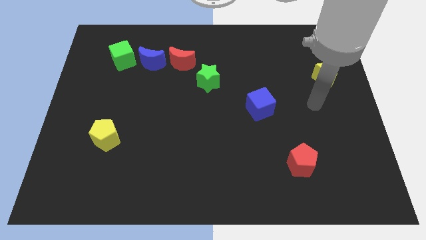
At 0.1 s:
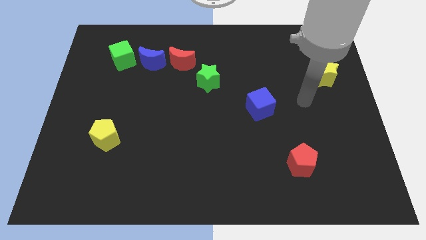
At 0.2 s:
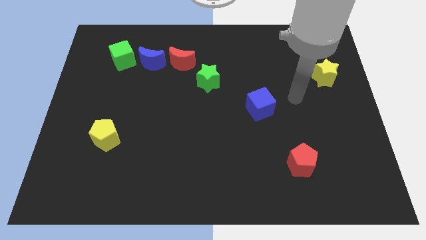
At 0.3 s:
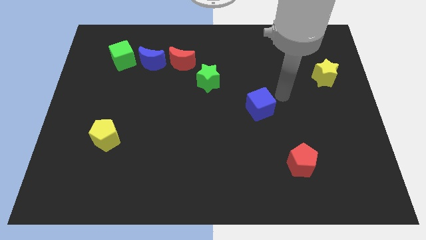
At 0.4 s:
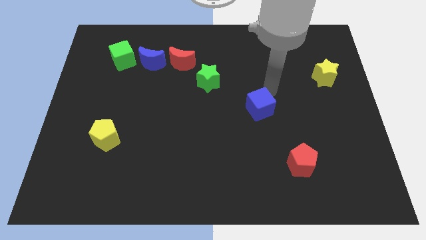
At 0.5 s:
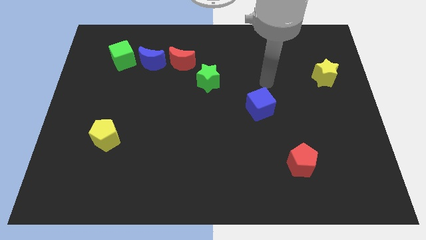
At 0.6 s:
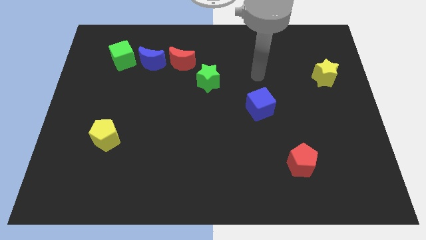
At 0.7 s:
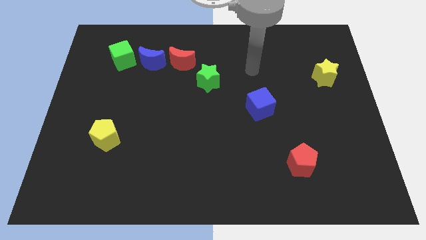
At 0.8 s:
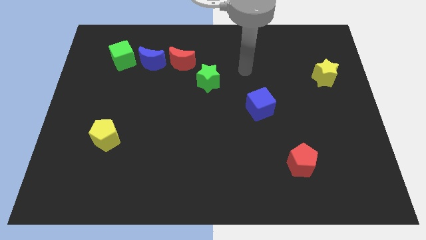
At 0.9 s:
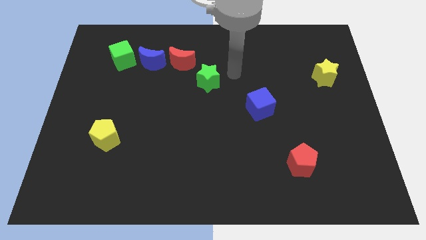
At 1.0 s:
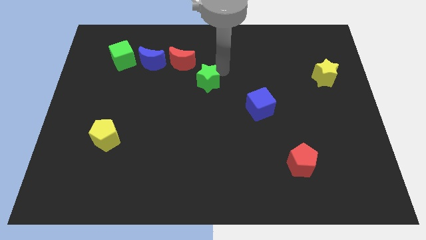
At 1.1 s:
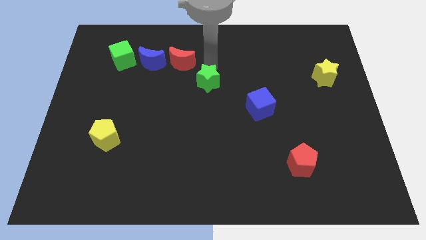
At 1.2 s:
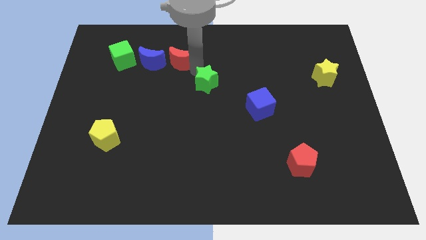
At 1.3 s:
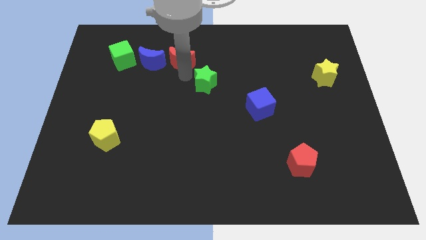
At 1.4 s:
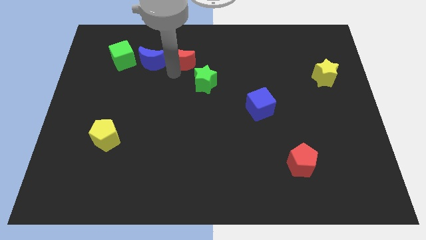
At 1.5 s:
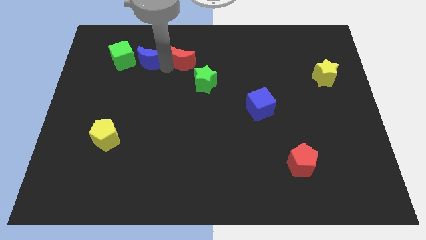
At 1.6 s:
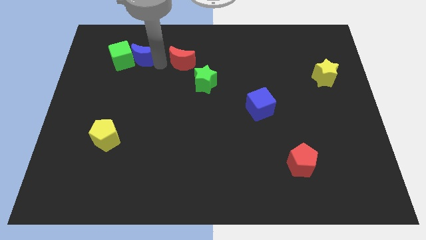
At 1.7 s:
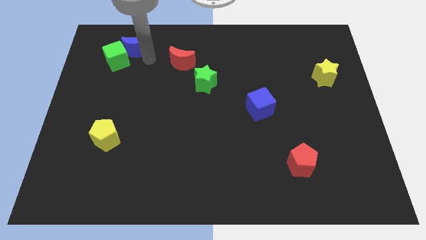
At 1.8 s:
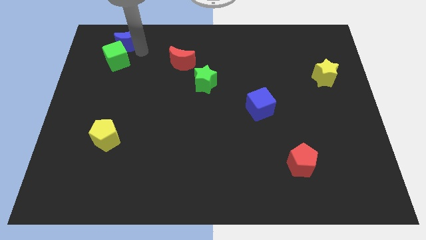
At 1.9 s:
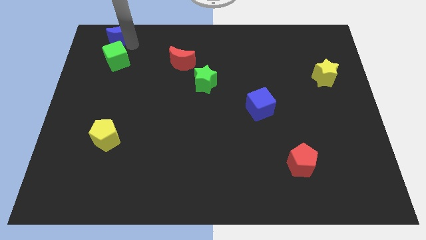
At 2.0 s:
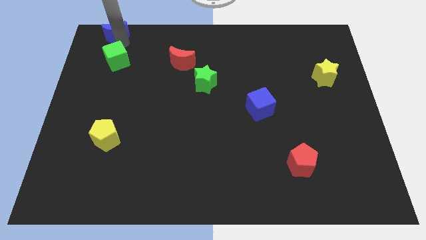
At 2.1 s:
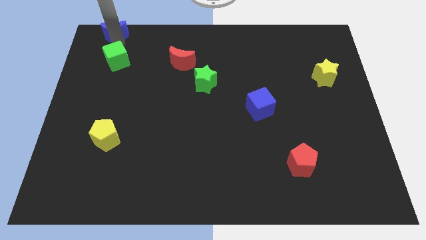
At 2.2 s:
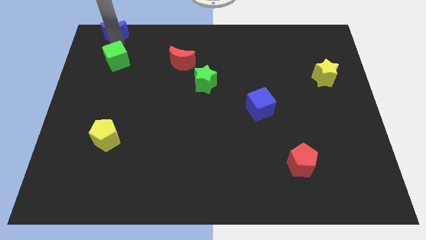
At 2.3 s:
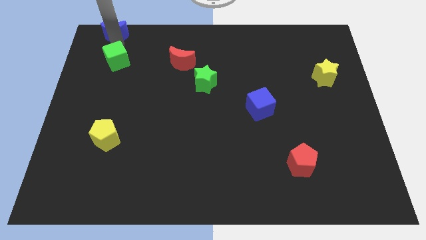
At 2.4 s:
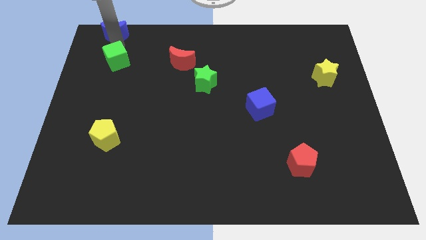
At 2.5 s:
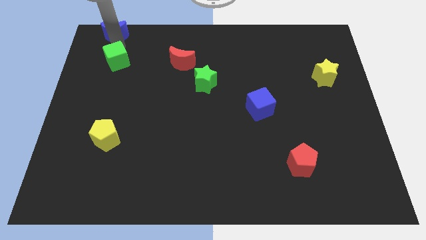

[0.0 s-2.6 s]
move the green cube away from the blue moon

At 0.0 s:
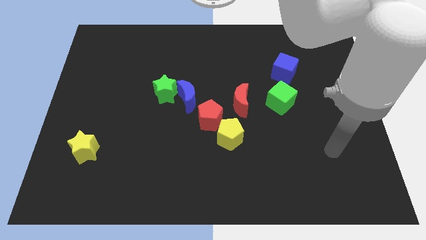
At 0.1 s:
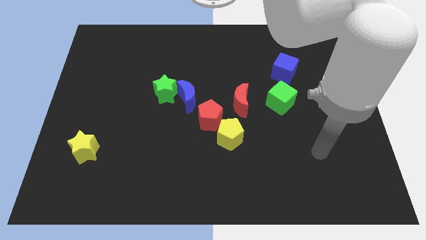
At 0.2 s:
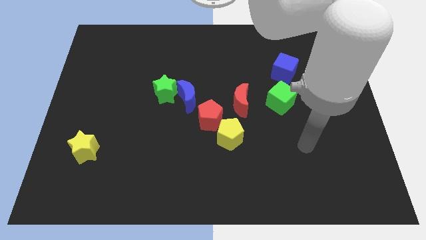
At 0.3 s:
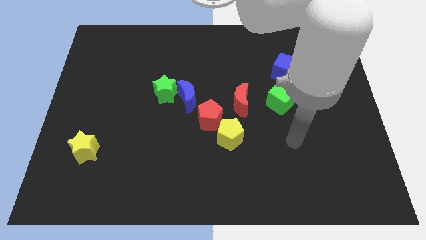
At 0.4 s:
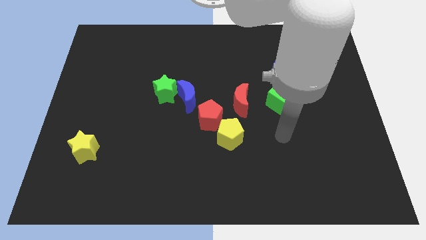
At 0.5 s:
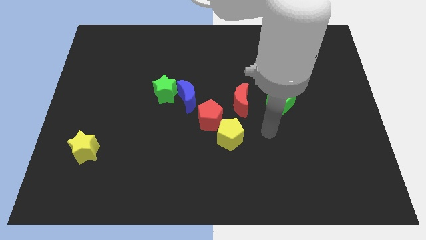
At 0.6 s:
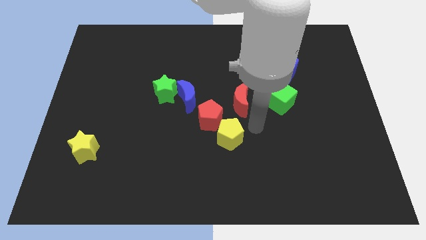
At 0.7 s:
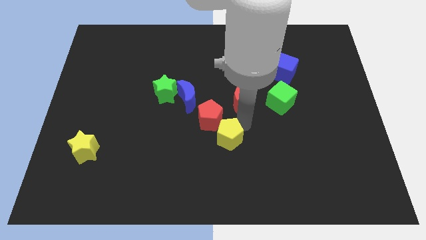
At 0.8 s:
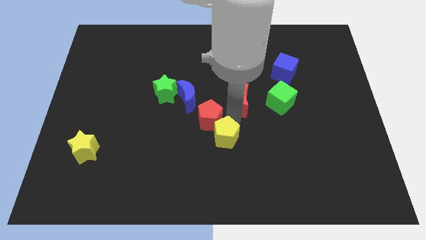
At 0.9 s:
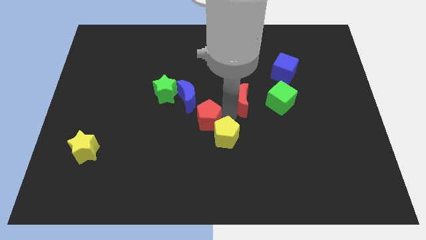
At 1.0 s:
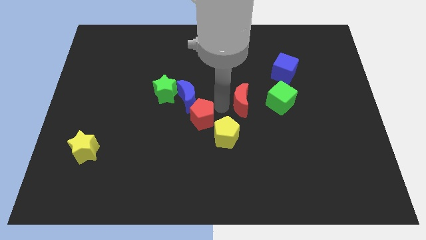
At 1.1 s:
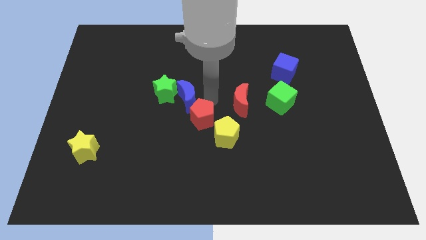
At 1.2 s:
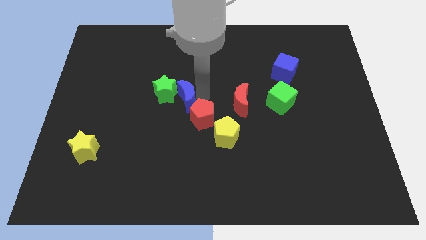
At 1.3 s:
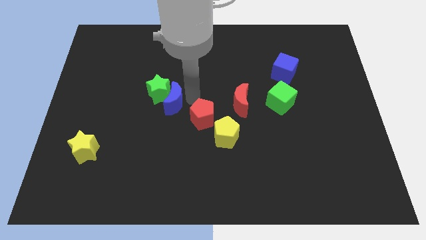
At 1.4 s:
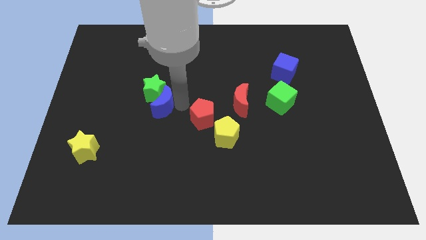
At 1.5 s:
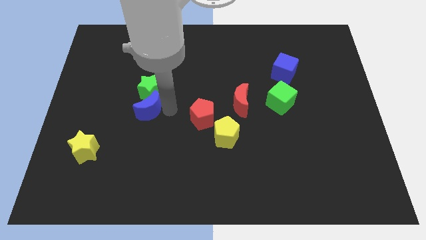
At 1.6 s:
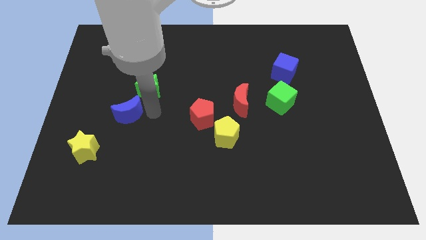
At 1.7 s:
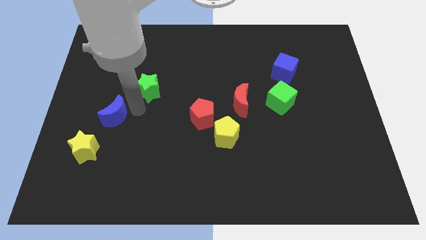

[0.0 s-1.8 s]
move the green star away from the blue moon

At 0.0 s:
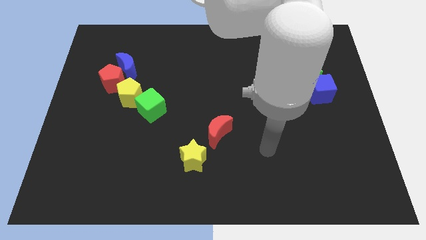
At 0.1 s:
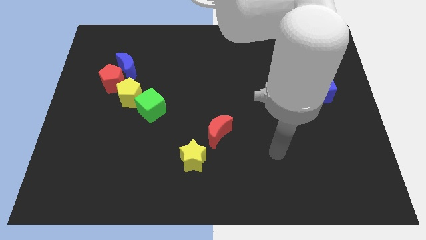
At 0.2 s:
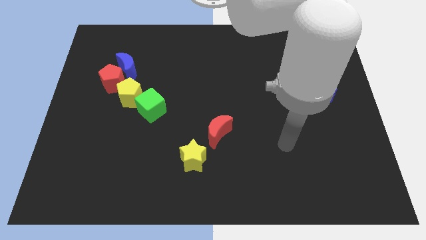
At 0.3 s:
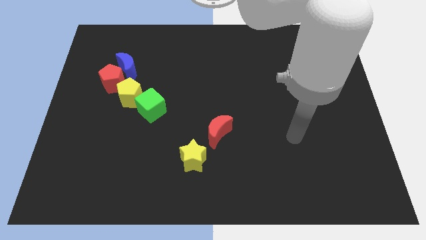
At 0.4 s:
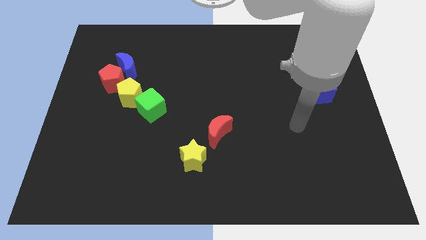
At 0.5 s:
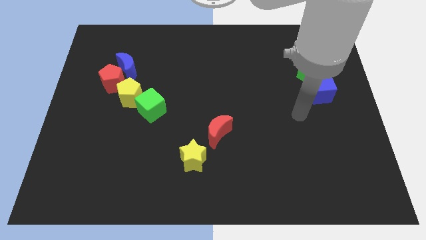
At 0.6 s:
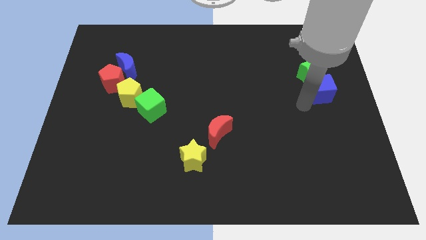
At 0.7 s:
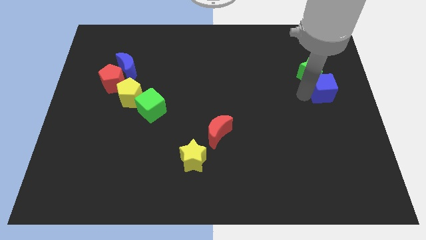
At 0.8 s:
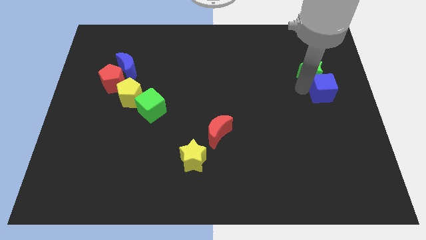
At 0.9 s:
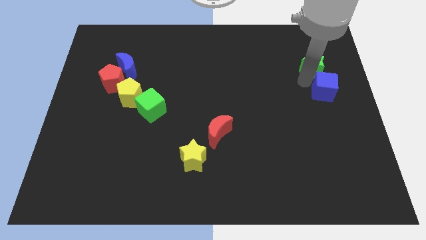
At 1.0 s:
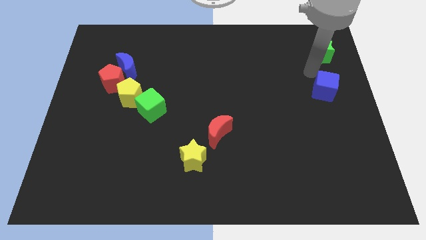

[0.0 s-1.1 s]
pull the blue cube apart from the green star

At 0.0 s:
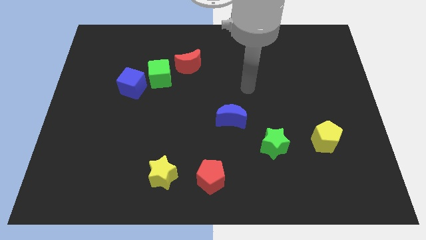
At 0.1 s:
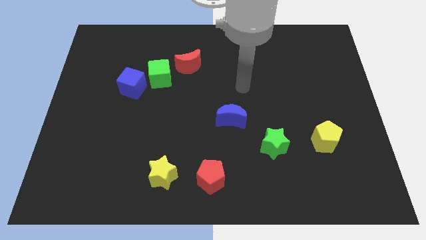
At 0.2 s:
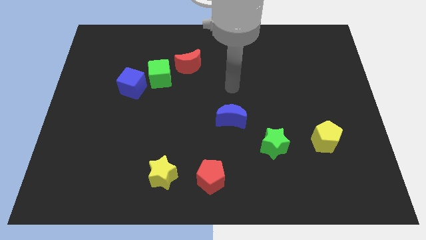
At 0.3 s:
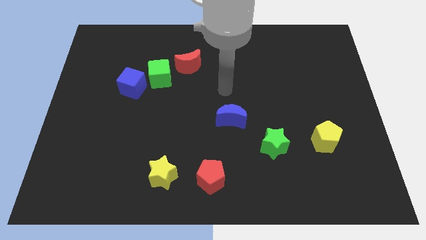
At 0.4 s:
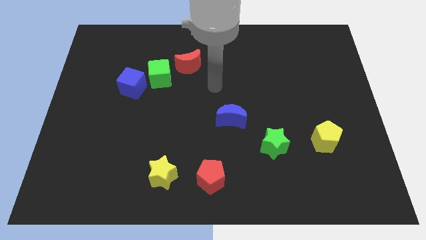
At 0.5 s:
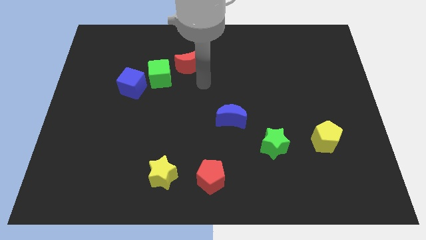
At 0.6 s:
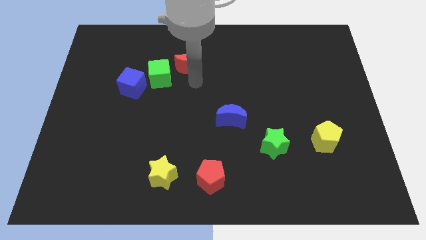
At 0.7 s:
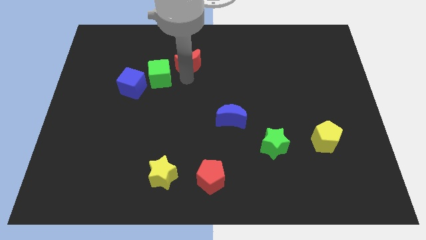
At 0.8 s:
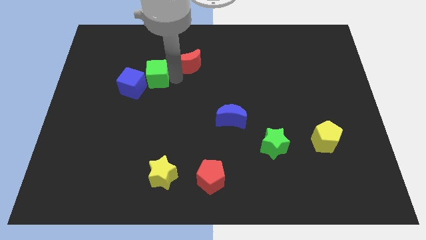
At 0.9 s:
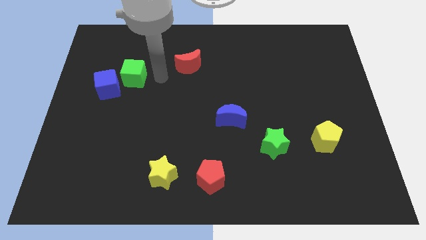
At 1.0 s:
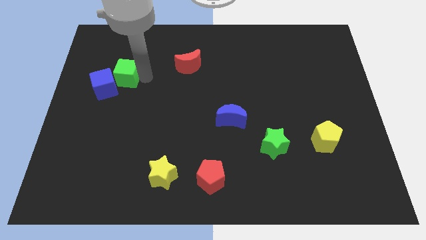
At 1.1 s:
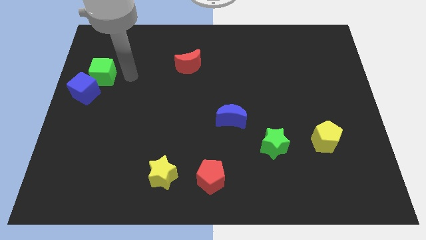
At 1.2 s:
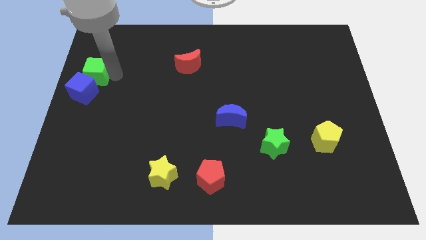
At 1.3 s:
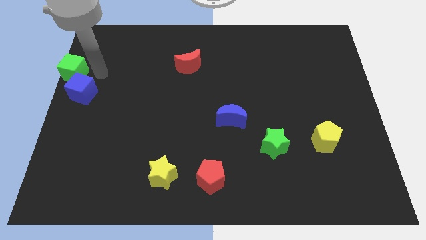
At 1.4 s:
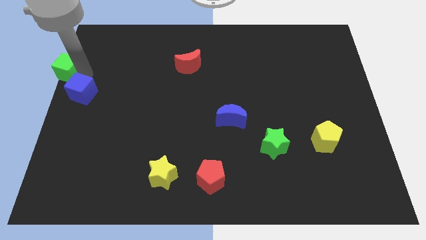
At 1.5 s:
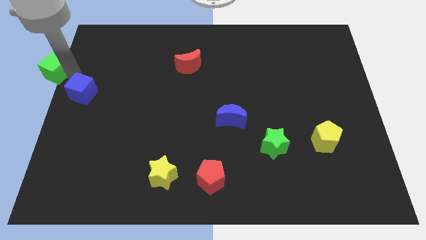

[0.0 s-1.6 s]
separate the blue cube from the green cube

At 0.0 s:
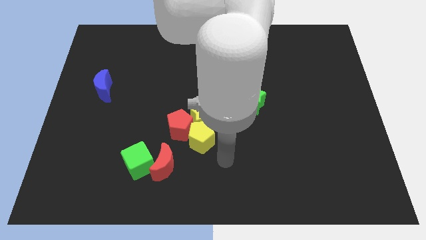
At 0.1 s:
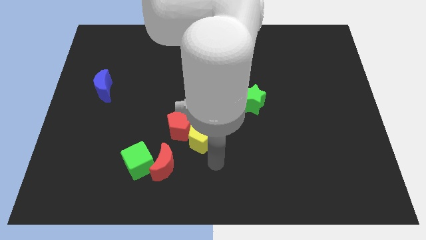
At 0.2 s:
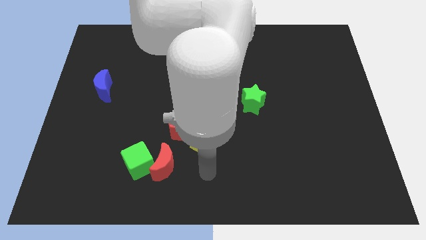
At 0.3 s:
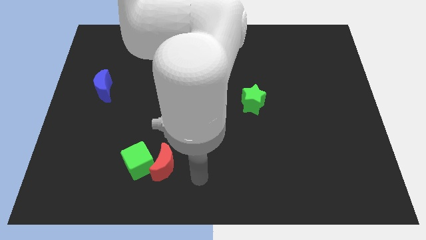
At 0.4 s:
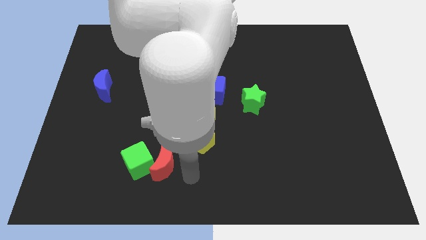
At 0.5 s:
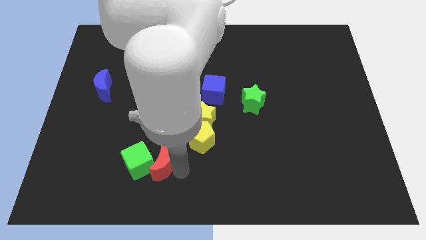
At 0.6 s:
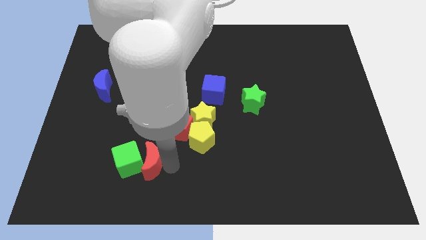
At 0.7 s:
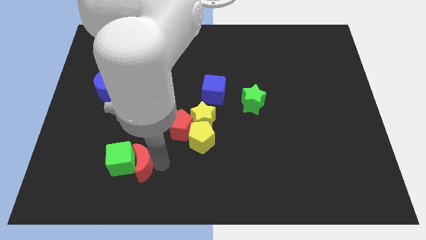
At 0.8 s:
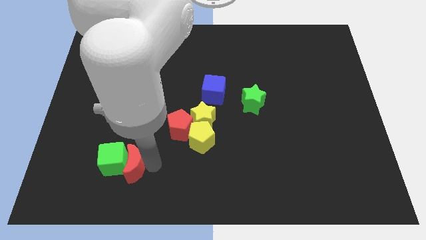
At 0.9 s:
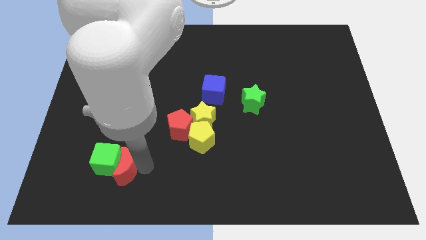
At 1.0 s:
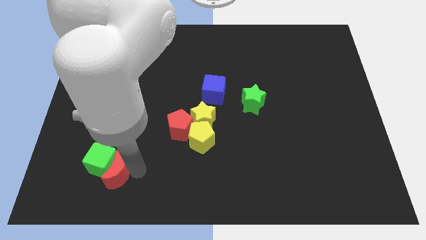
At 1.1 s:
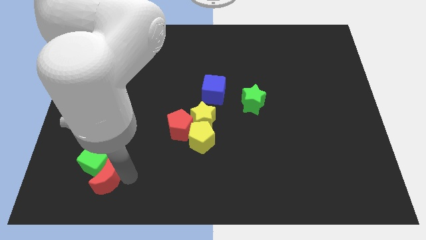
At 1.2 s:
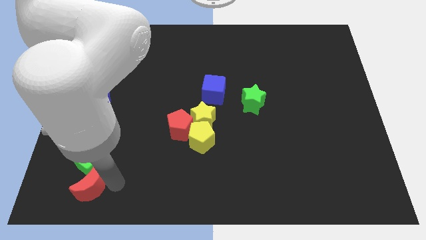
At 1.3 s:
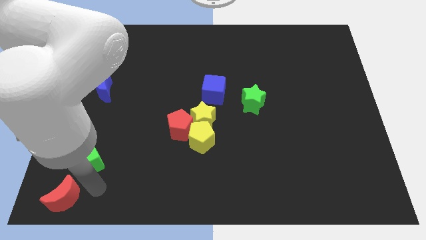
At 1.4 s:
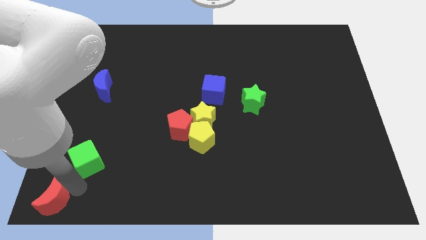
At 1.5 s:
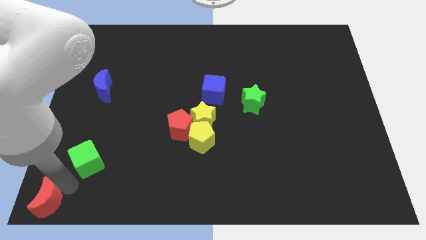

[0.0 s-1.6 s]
pull the green cube apart from the red moon

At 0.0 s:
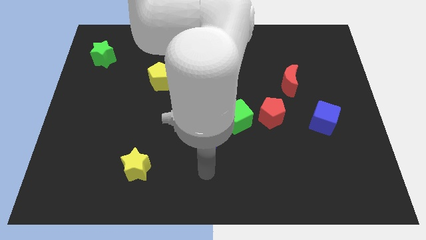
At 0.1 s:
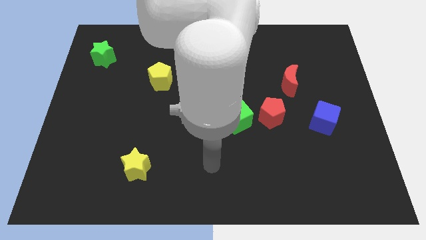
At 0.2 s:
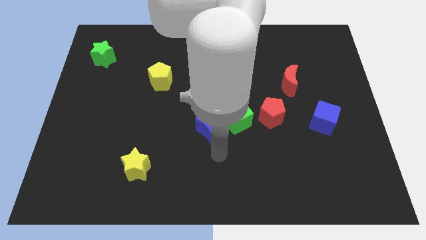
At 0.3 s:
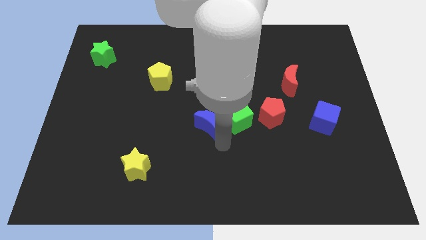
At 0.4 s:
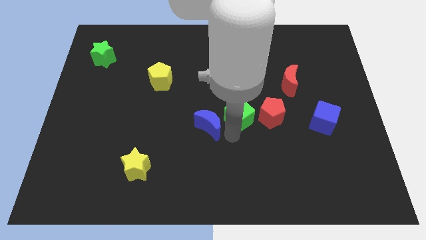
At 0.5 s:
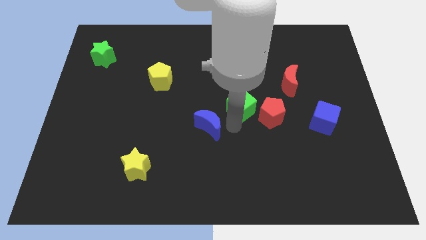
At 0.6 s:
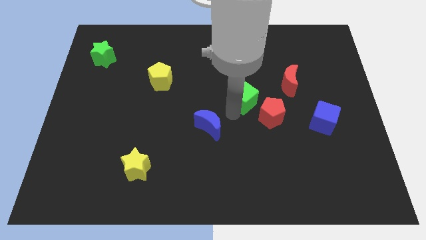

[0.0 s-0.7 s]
separate the blue moon from the green cube

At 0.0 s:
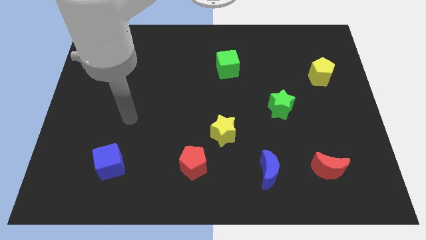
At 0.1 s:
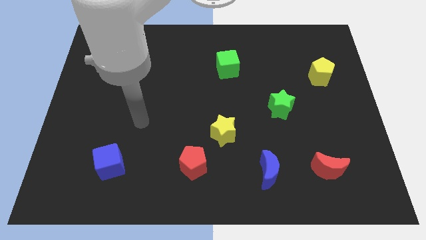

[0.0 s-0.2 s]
move the red pentagon away from the yellow star
